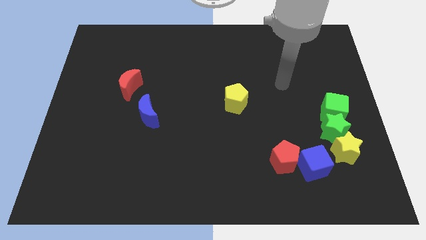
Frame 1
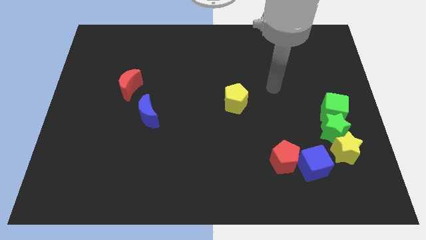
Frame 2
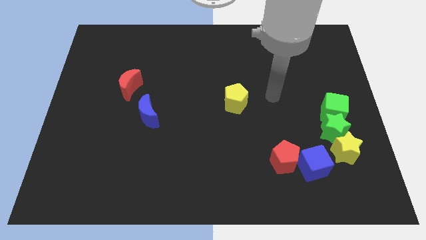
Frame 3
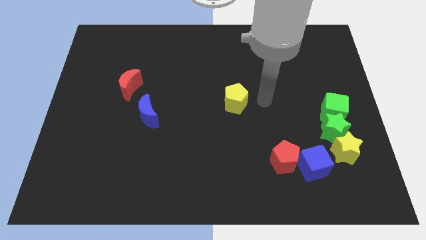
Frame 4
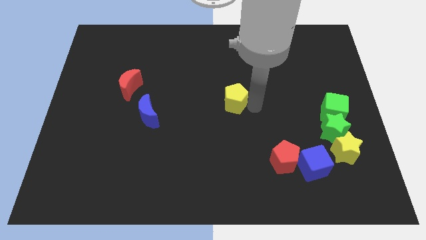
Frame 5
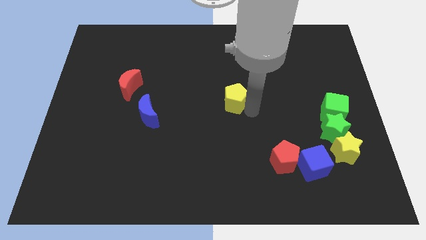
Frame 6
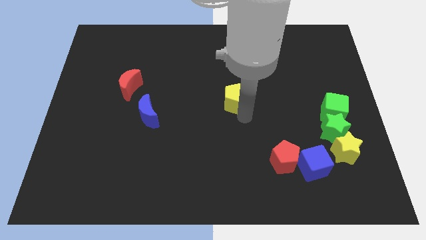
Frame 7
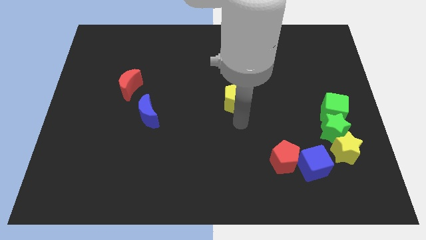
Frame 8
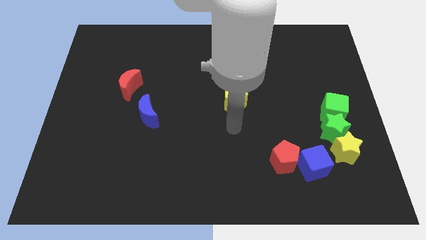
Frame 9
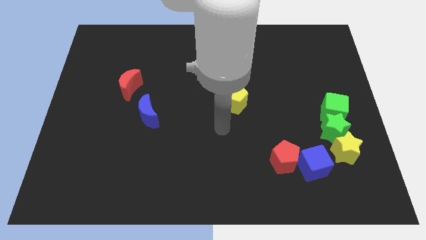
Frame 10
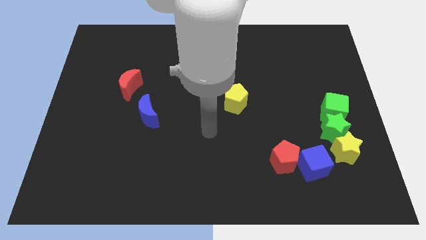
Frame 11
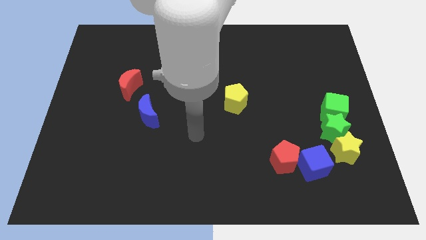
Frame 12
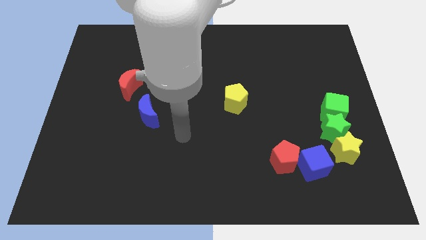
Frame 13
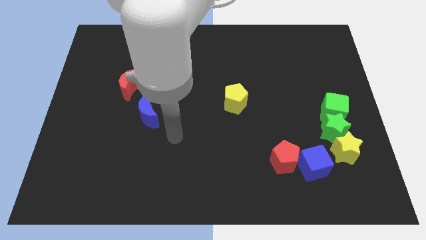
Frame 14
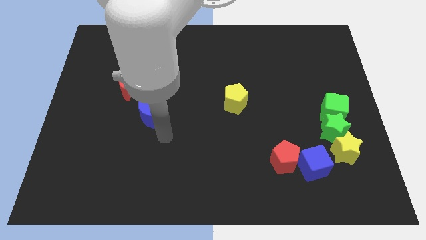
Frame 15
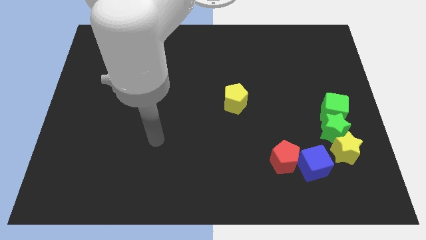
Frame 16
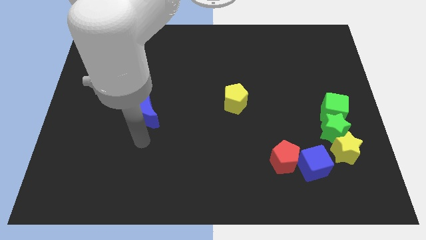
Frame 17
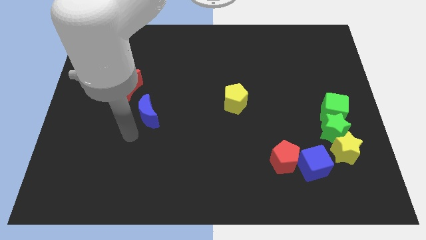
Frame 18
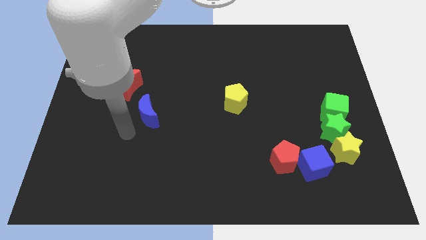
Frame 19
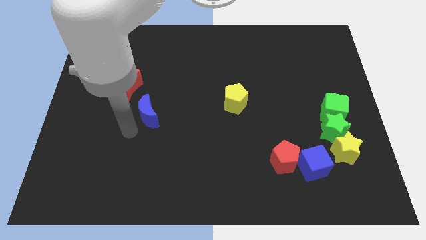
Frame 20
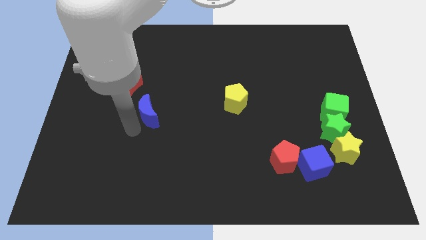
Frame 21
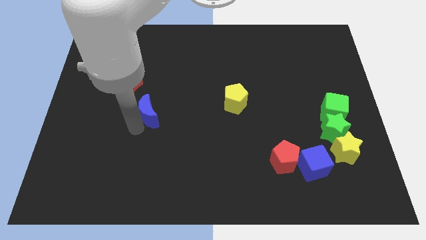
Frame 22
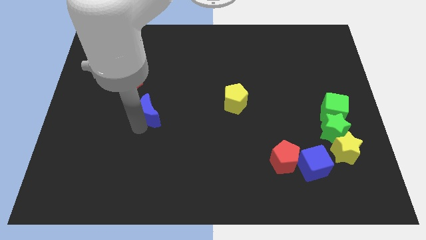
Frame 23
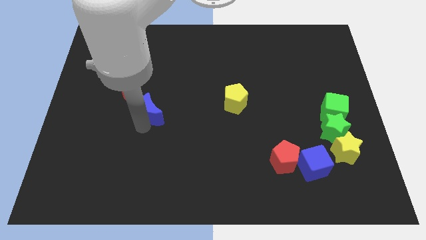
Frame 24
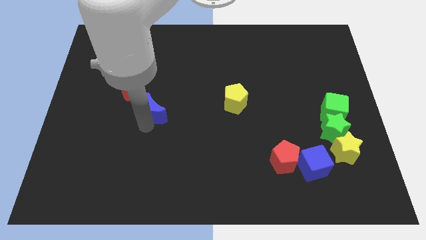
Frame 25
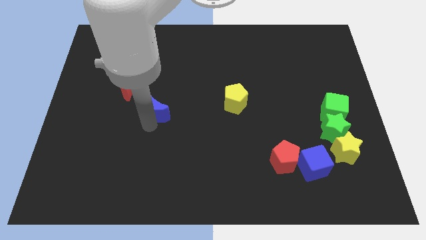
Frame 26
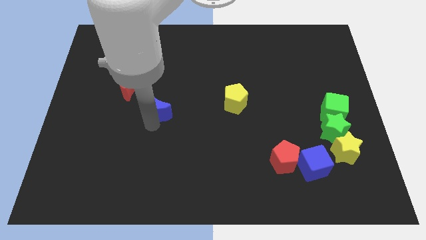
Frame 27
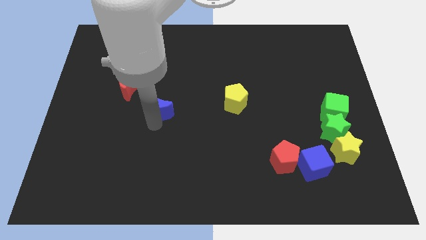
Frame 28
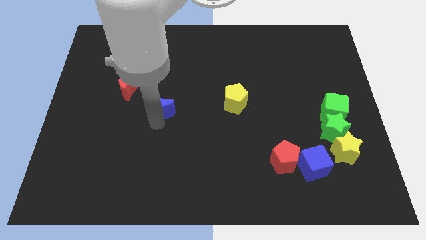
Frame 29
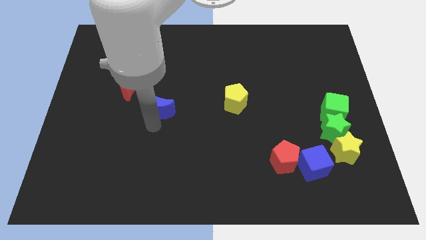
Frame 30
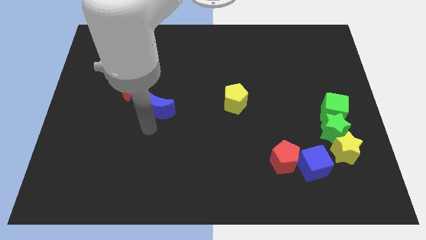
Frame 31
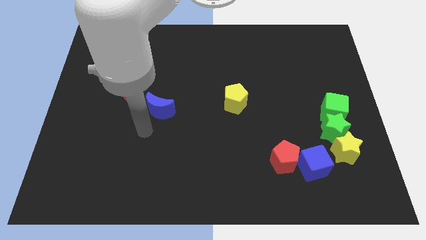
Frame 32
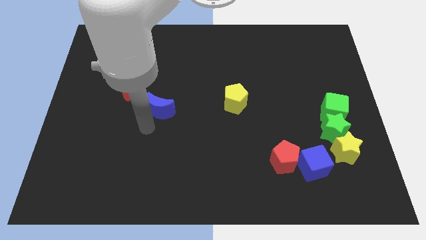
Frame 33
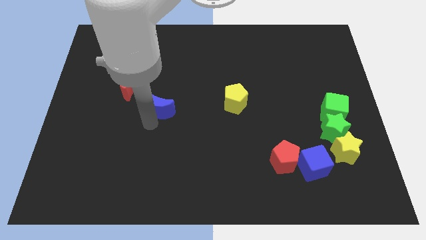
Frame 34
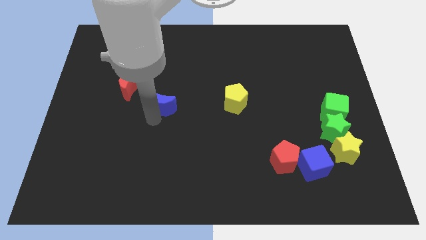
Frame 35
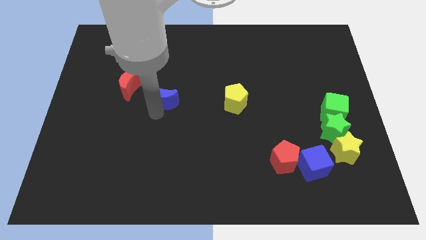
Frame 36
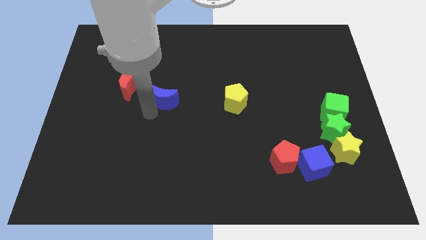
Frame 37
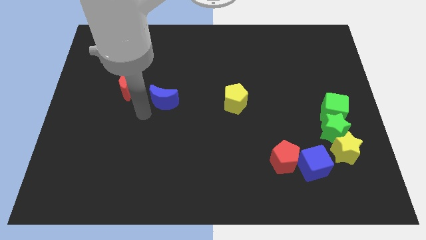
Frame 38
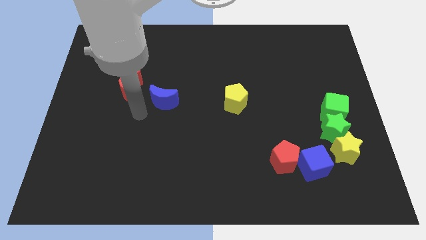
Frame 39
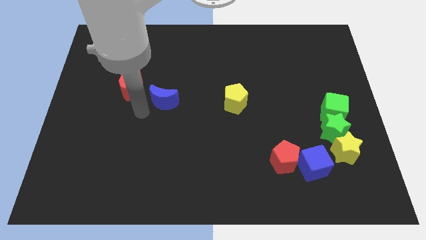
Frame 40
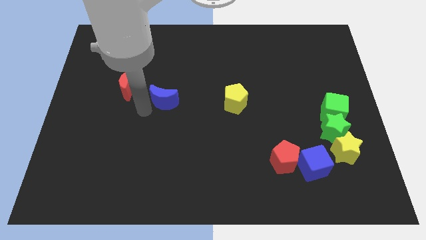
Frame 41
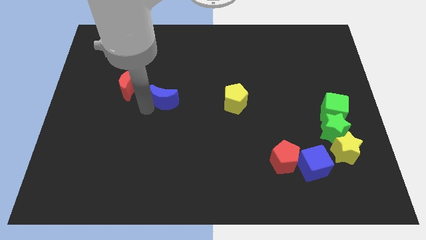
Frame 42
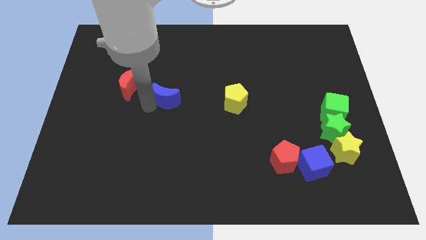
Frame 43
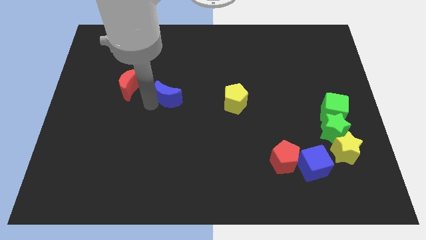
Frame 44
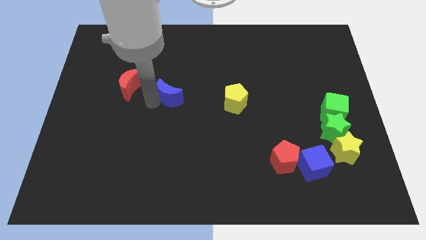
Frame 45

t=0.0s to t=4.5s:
move the blue moon up and to the right diagonally a bit

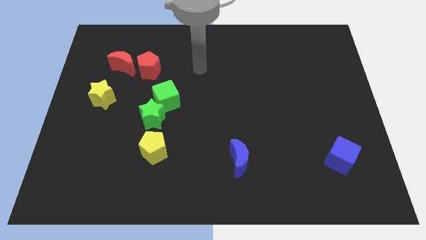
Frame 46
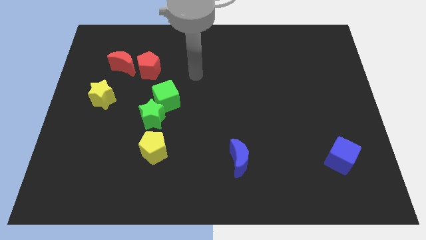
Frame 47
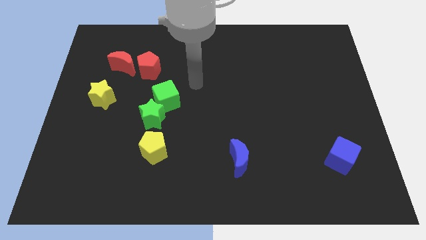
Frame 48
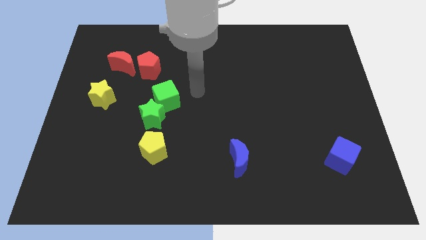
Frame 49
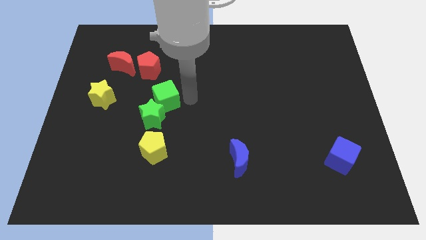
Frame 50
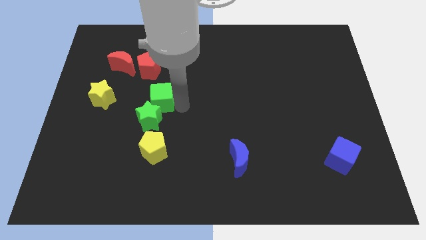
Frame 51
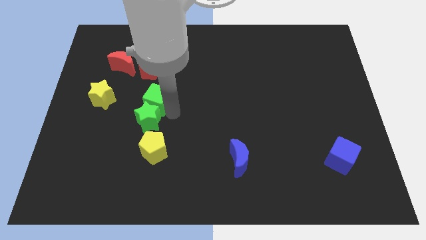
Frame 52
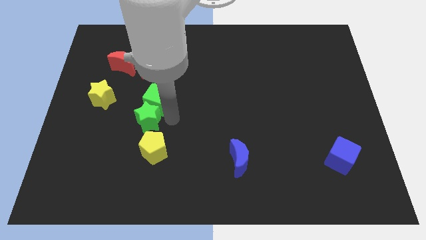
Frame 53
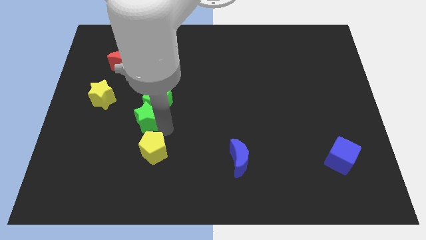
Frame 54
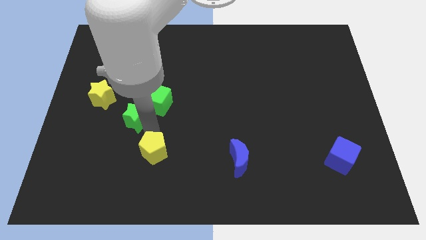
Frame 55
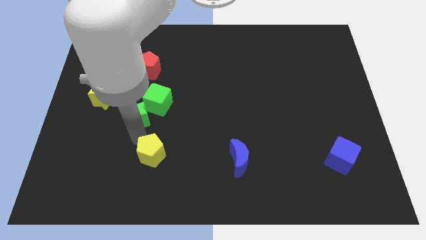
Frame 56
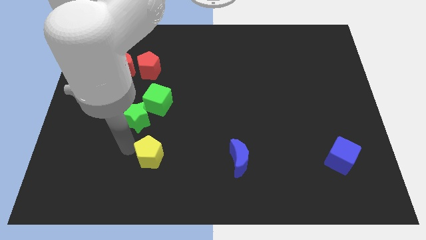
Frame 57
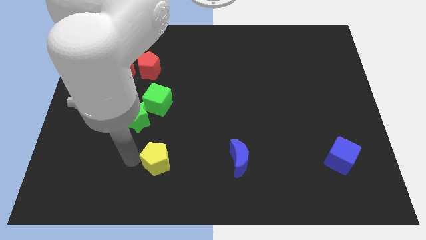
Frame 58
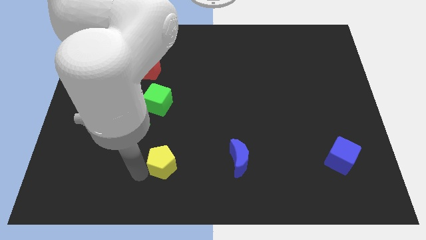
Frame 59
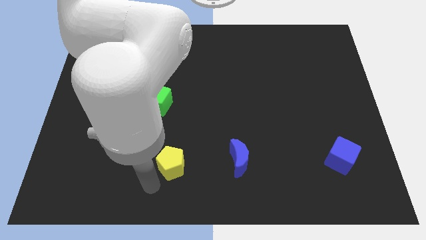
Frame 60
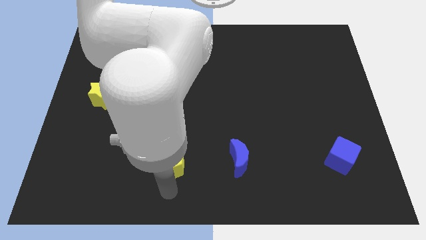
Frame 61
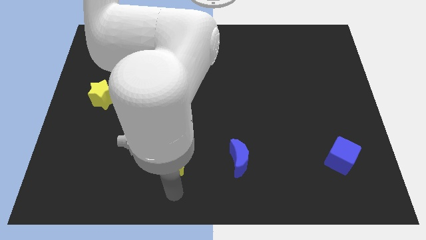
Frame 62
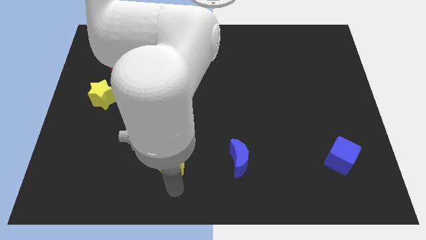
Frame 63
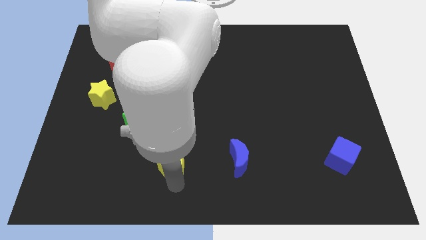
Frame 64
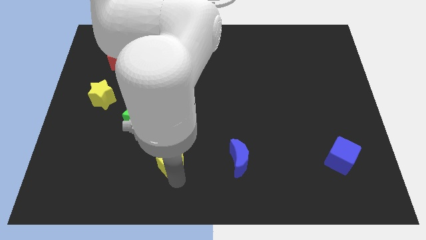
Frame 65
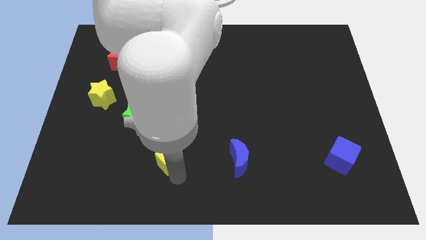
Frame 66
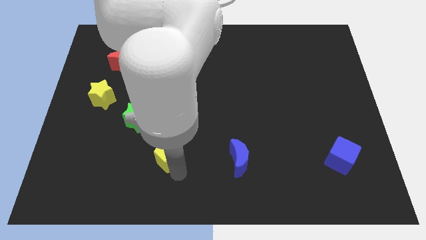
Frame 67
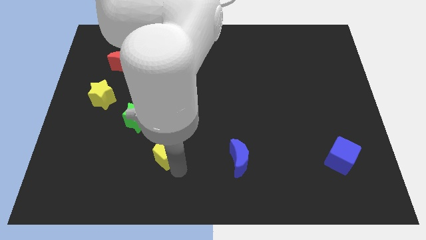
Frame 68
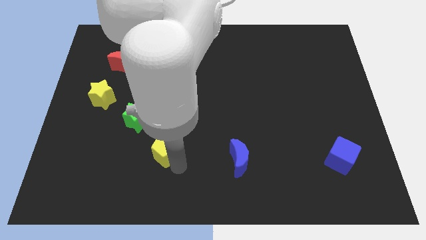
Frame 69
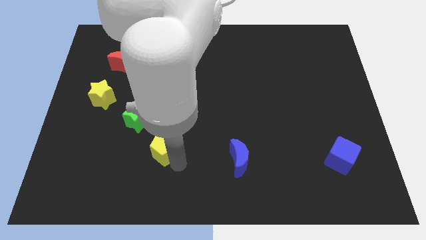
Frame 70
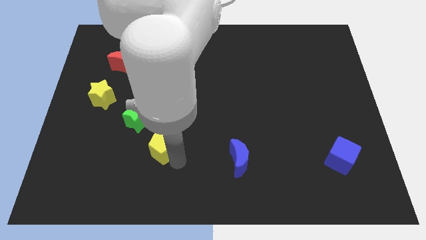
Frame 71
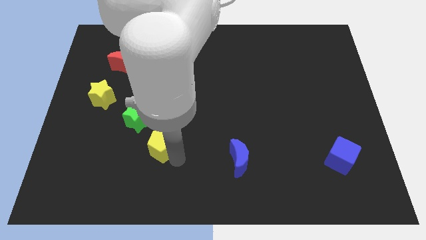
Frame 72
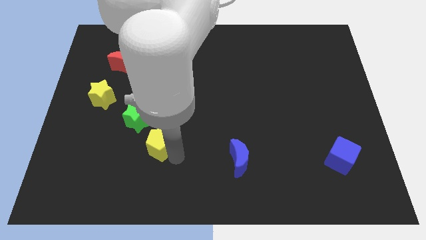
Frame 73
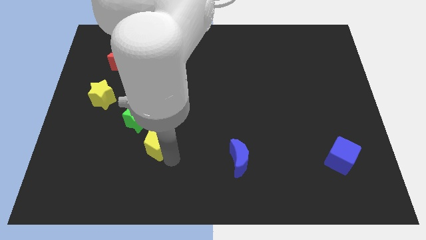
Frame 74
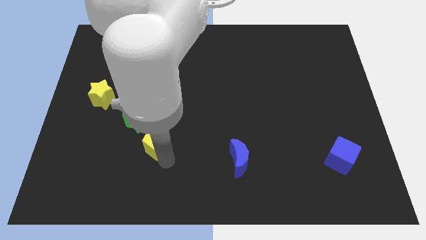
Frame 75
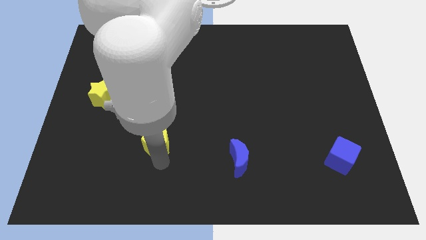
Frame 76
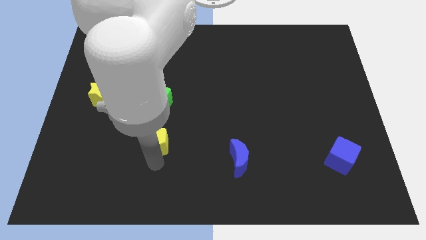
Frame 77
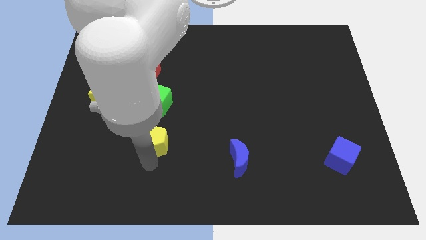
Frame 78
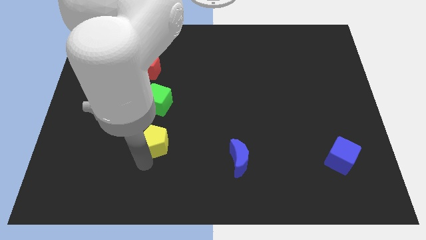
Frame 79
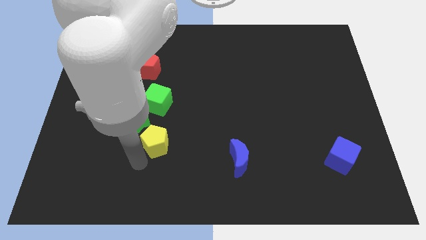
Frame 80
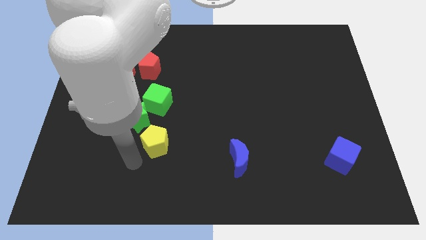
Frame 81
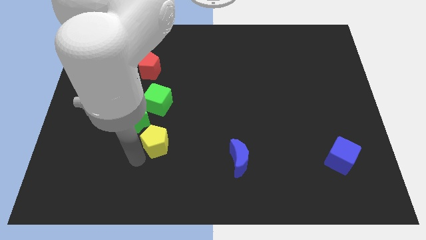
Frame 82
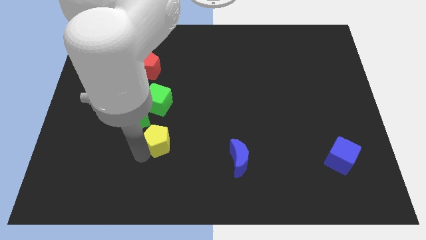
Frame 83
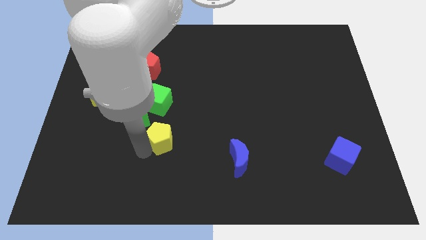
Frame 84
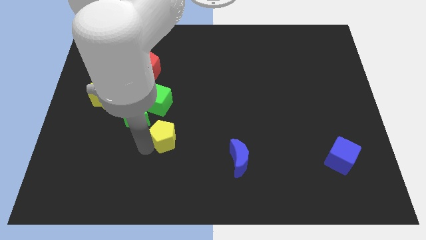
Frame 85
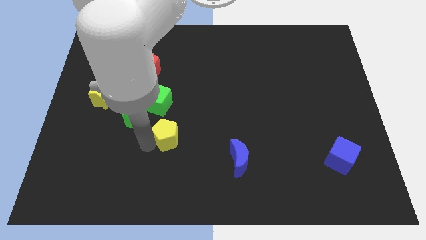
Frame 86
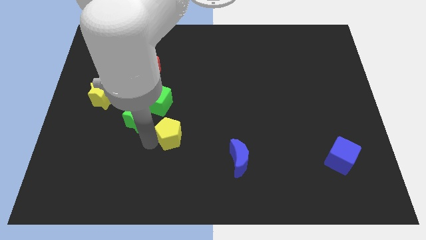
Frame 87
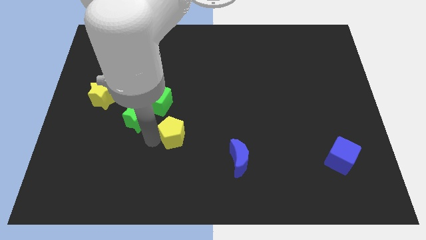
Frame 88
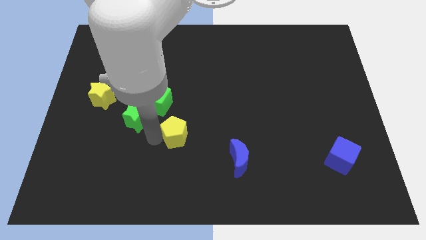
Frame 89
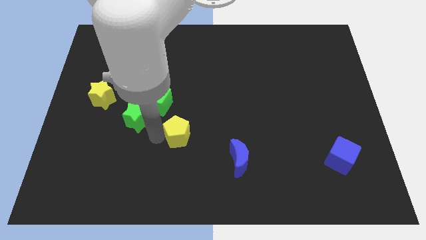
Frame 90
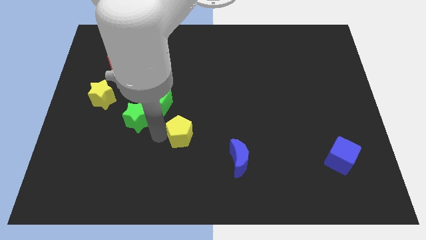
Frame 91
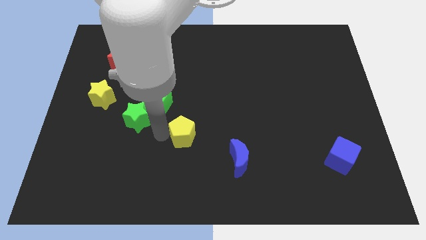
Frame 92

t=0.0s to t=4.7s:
move the yellow pentagon diagonally upwards and to the right a bit
